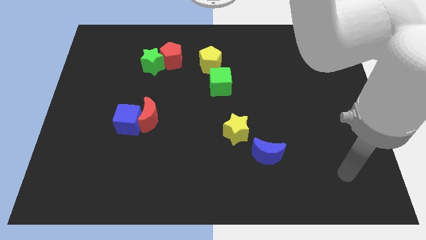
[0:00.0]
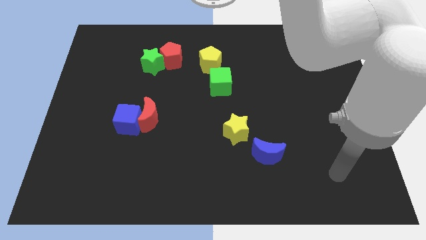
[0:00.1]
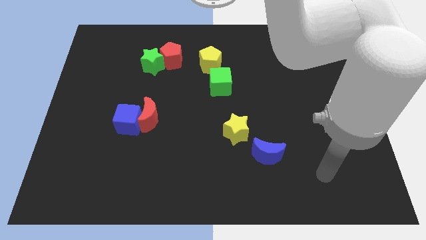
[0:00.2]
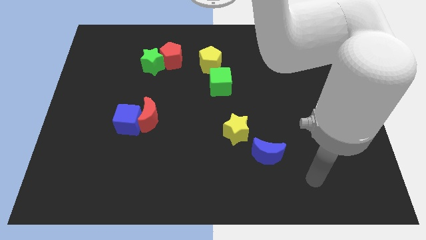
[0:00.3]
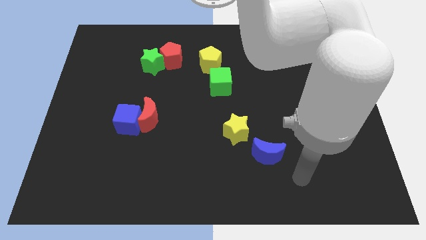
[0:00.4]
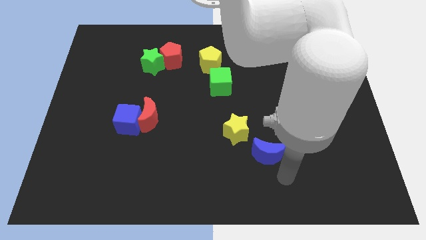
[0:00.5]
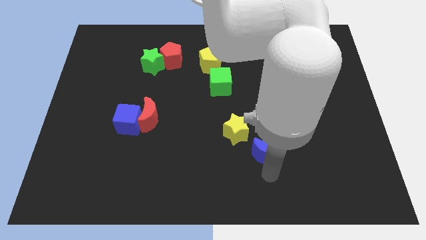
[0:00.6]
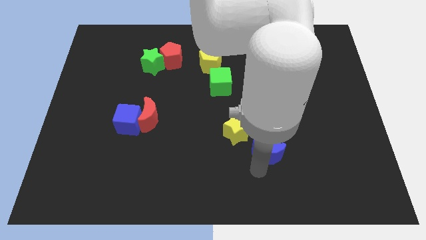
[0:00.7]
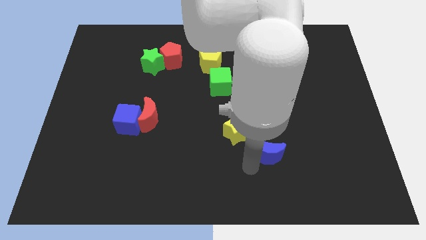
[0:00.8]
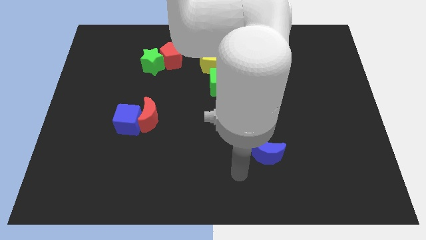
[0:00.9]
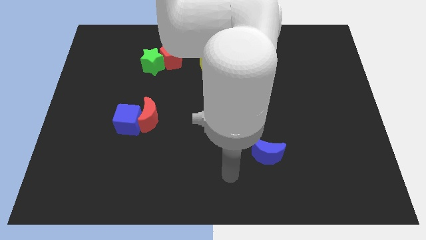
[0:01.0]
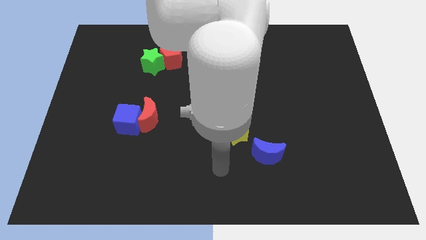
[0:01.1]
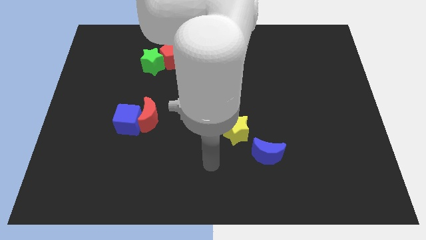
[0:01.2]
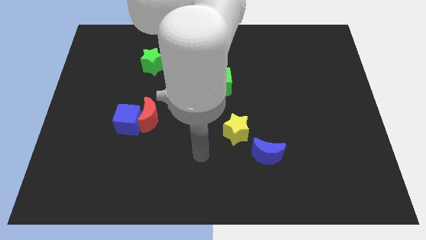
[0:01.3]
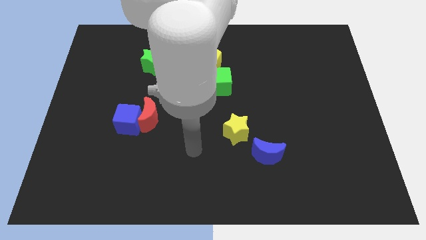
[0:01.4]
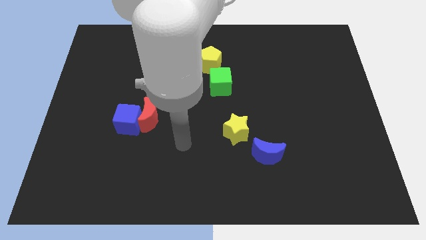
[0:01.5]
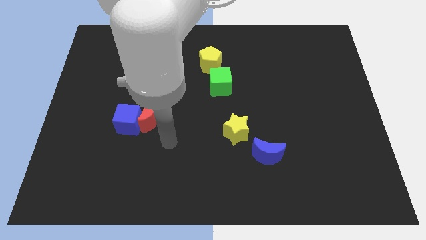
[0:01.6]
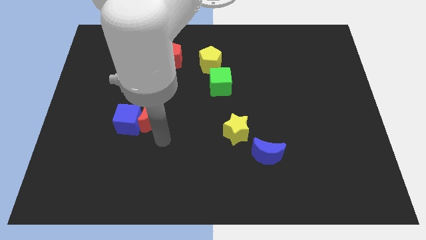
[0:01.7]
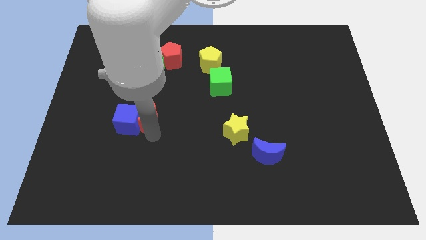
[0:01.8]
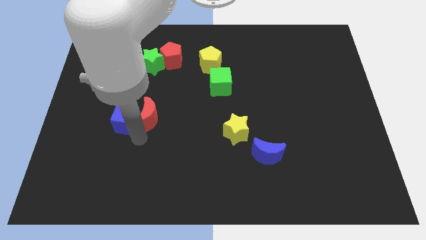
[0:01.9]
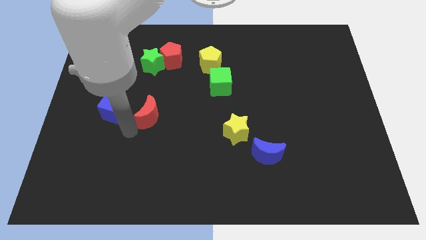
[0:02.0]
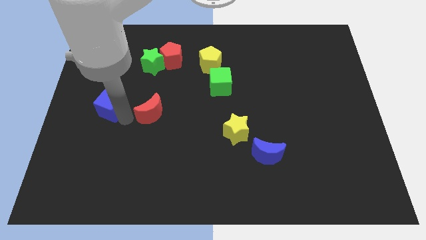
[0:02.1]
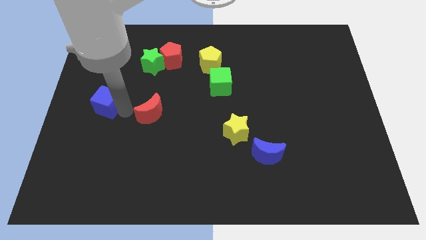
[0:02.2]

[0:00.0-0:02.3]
pull the red moon apart from the blue cube

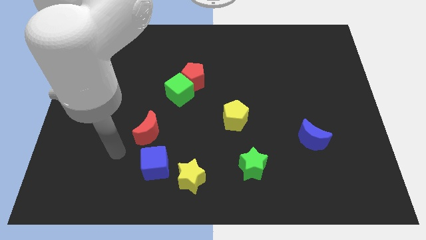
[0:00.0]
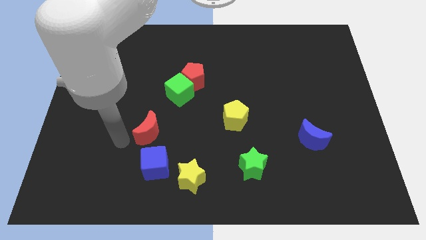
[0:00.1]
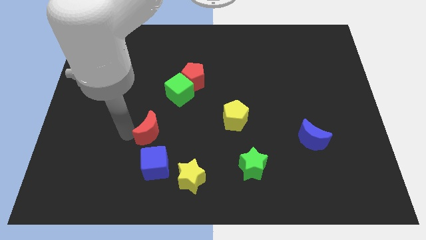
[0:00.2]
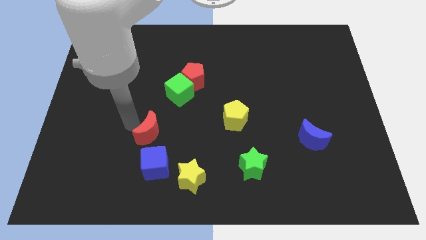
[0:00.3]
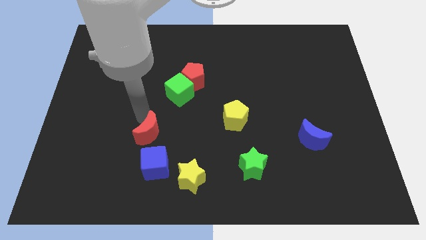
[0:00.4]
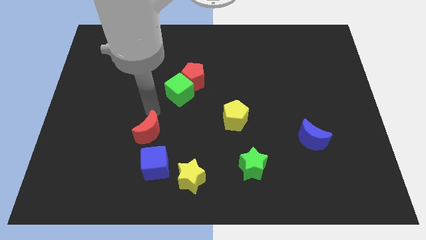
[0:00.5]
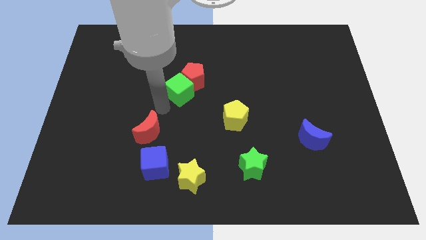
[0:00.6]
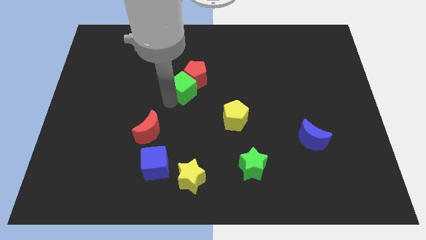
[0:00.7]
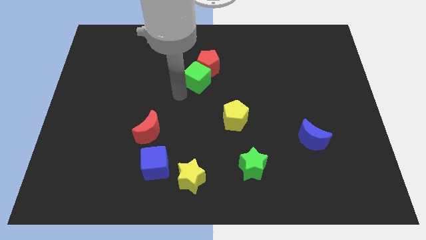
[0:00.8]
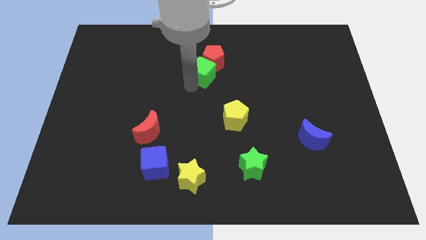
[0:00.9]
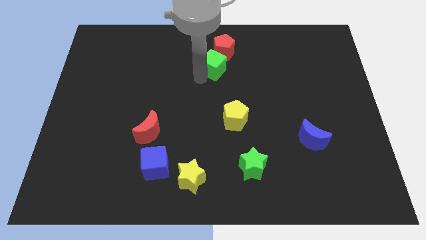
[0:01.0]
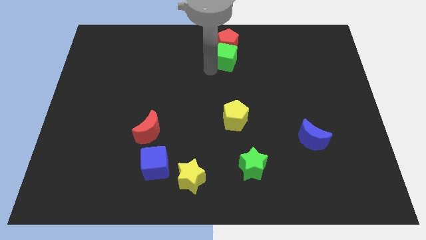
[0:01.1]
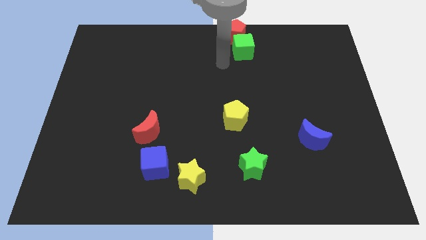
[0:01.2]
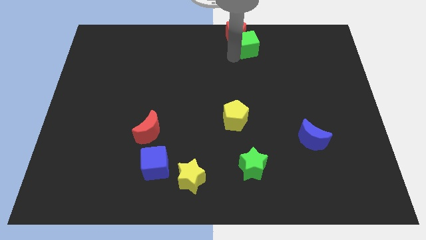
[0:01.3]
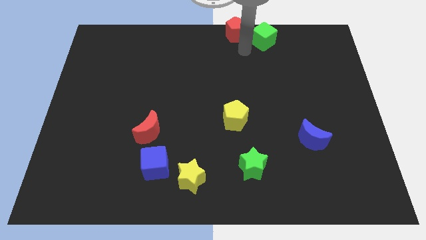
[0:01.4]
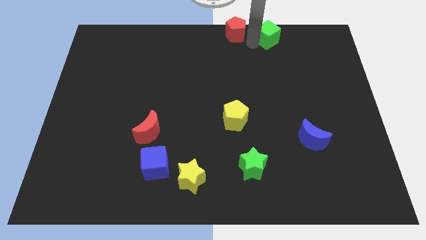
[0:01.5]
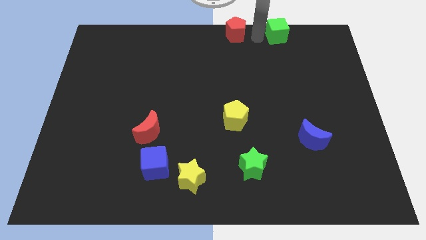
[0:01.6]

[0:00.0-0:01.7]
separate the red pentagon from the green cube

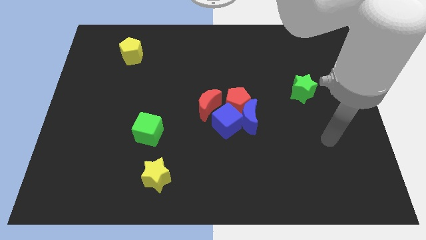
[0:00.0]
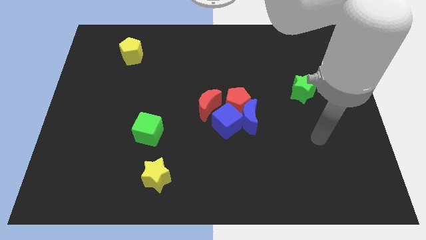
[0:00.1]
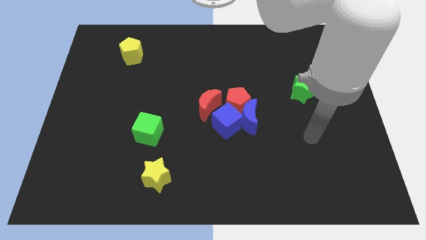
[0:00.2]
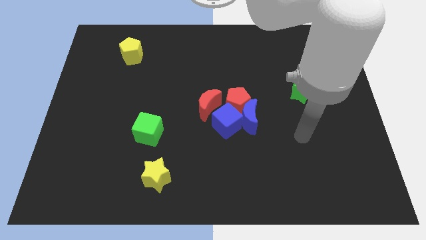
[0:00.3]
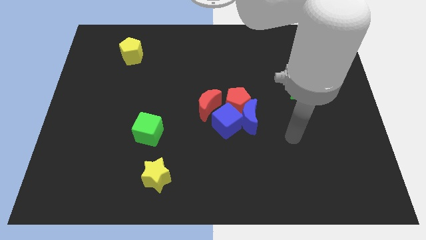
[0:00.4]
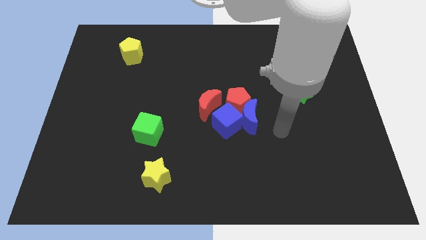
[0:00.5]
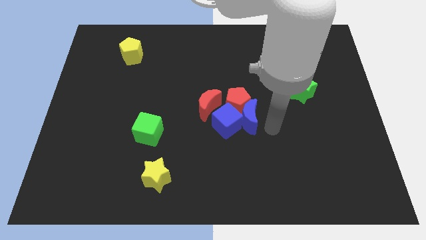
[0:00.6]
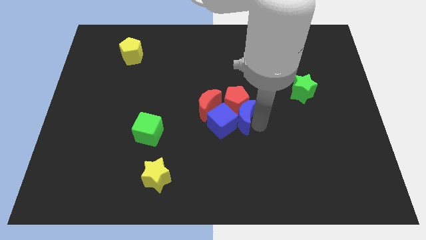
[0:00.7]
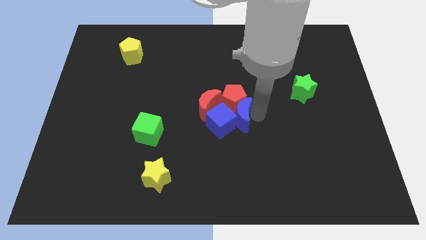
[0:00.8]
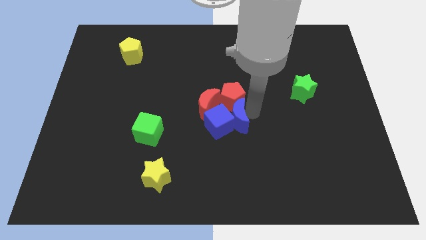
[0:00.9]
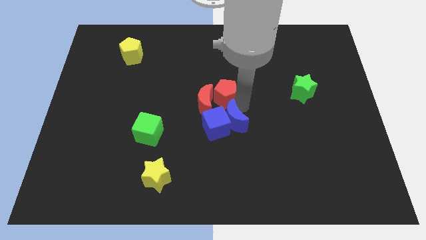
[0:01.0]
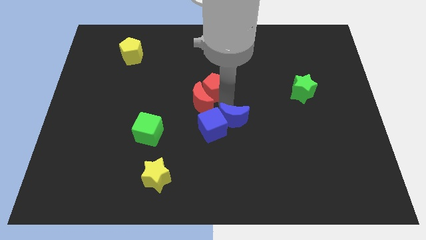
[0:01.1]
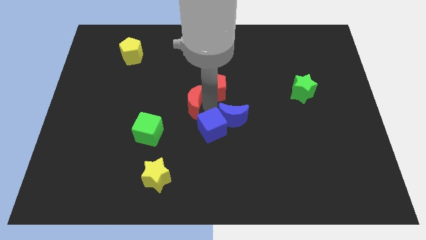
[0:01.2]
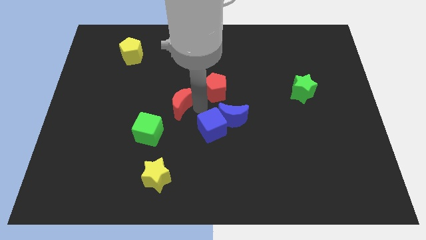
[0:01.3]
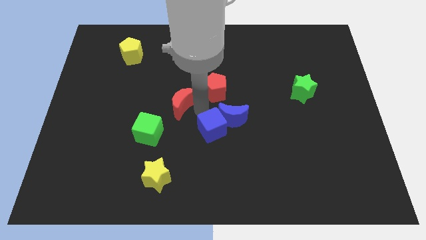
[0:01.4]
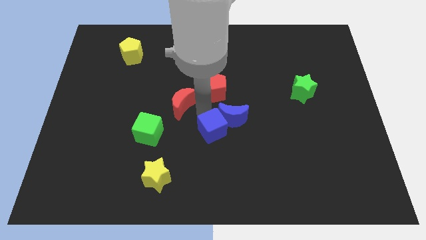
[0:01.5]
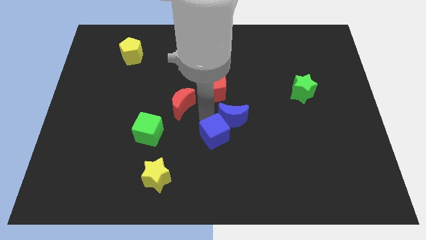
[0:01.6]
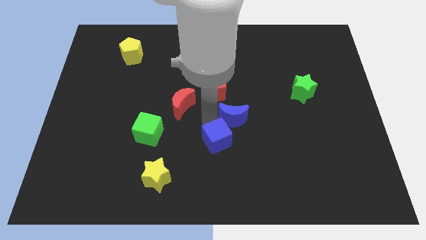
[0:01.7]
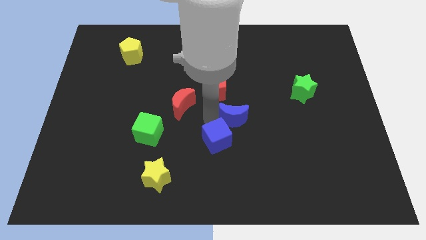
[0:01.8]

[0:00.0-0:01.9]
pull the blue cube apart from the blue moon, red pentagon, and red moon

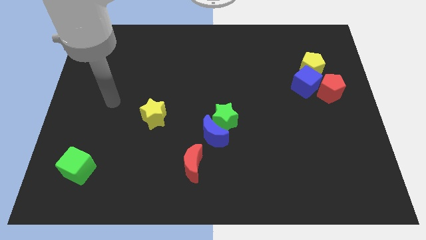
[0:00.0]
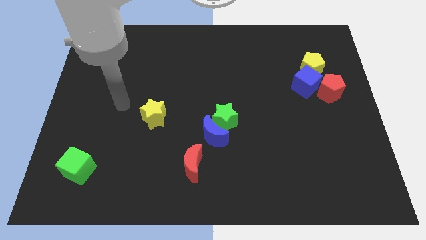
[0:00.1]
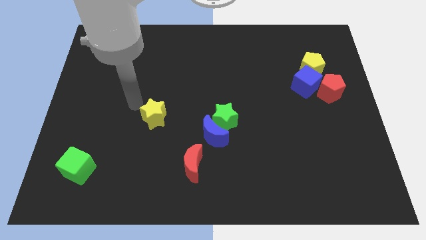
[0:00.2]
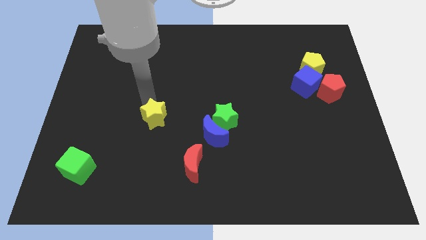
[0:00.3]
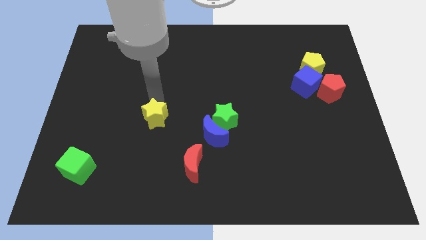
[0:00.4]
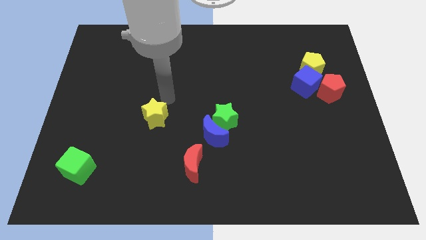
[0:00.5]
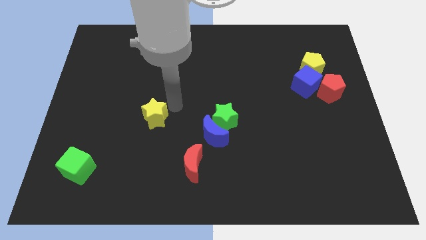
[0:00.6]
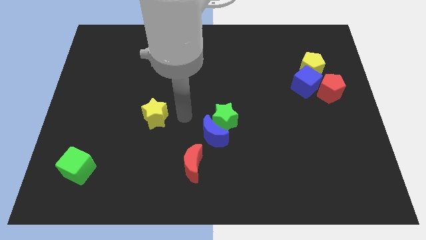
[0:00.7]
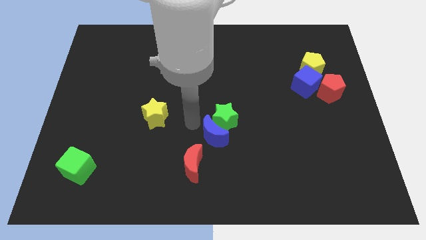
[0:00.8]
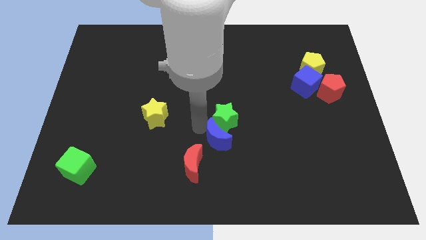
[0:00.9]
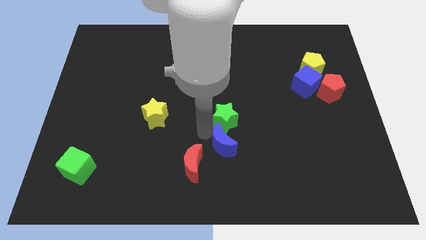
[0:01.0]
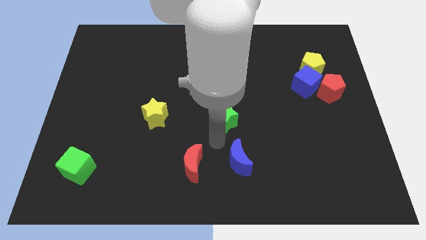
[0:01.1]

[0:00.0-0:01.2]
separate the green star from the blue moon
